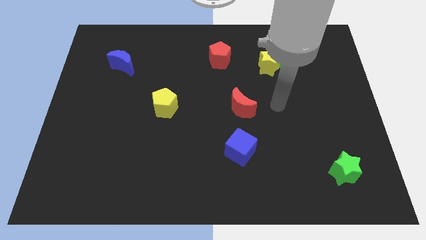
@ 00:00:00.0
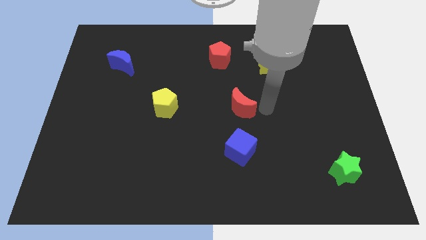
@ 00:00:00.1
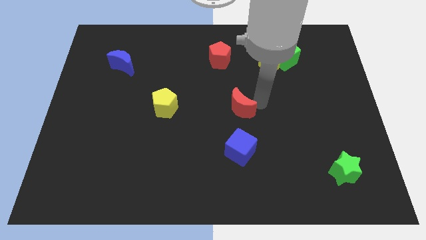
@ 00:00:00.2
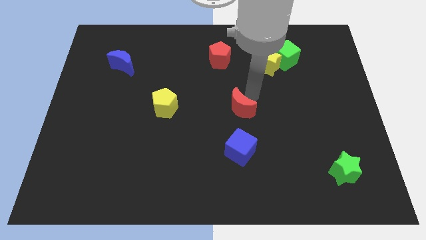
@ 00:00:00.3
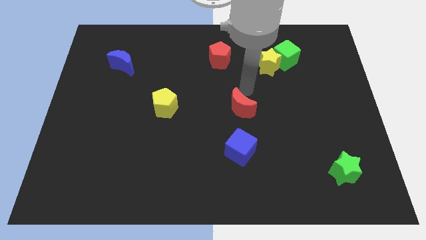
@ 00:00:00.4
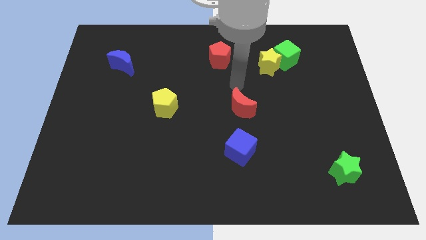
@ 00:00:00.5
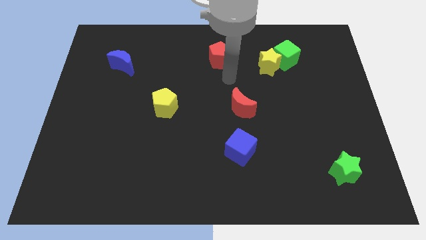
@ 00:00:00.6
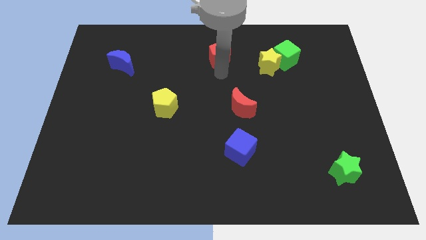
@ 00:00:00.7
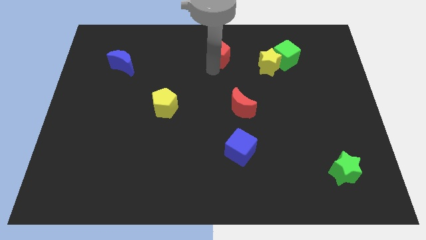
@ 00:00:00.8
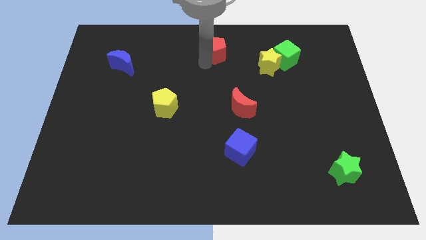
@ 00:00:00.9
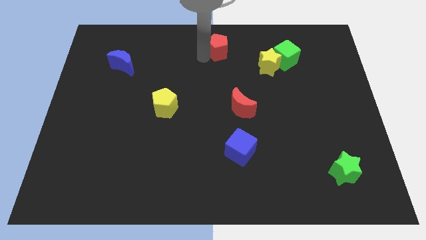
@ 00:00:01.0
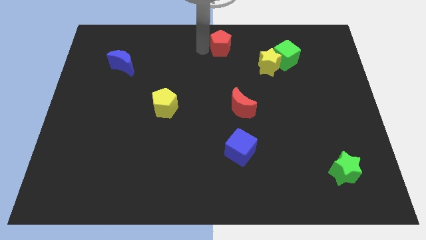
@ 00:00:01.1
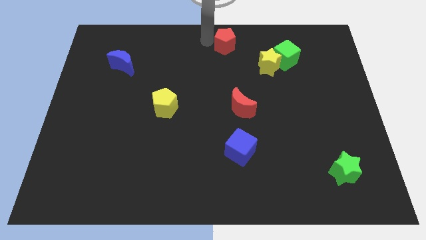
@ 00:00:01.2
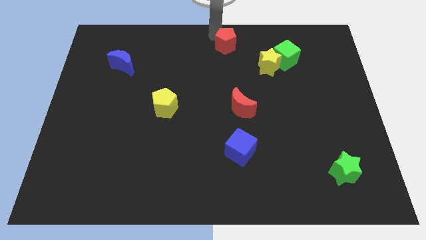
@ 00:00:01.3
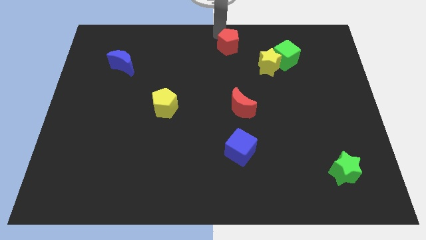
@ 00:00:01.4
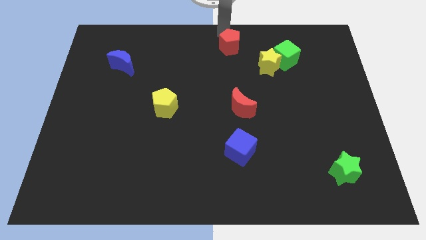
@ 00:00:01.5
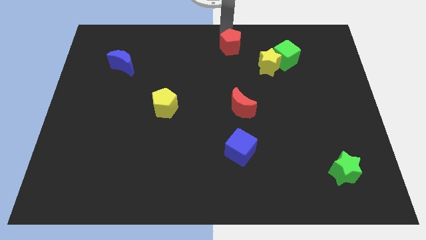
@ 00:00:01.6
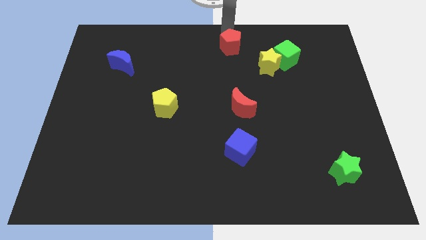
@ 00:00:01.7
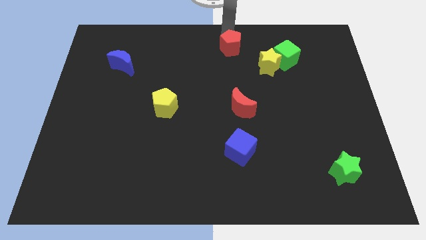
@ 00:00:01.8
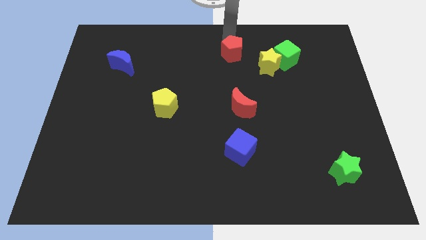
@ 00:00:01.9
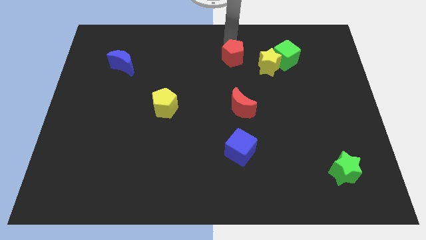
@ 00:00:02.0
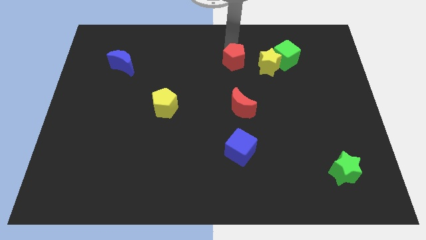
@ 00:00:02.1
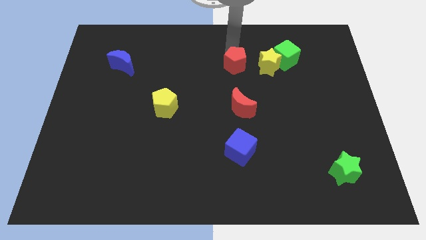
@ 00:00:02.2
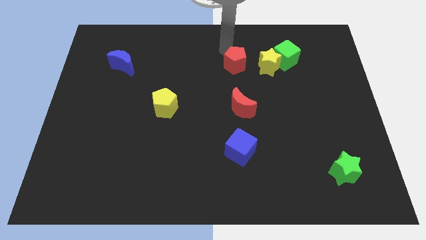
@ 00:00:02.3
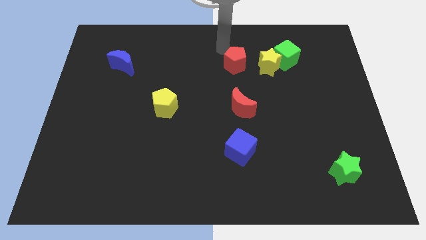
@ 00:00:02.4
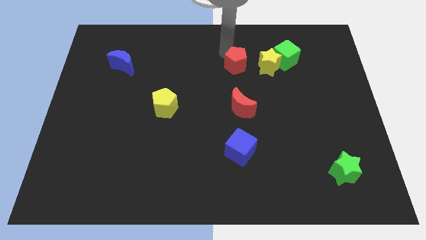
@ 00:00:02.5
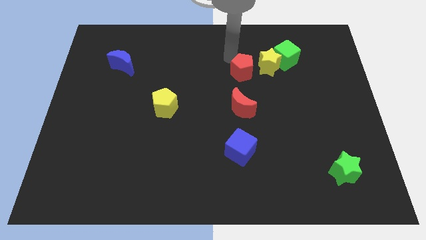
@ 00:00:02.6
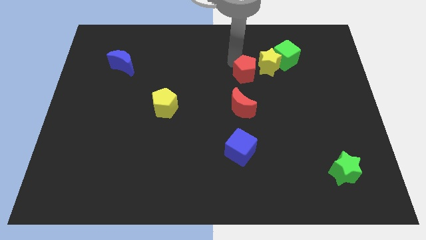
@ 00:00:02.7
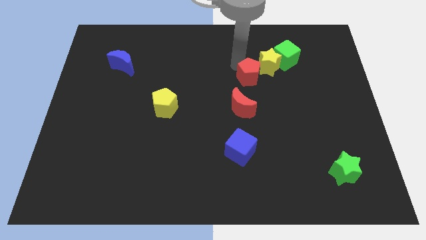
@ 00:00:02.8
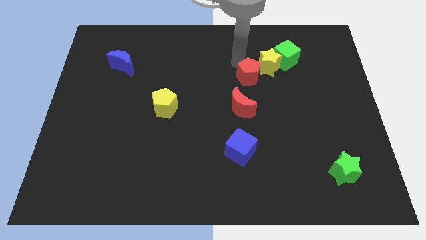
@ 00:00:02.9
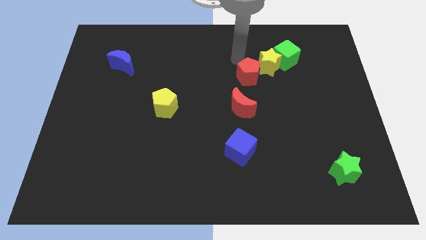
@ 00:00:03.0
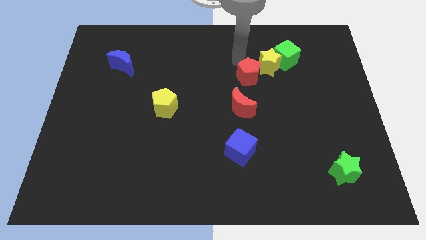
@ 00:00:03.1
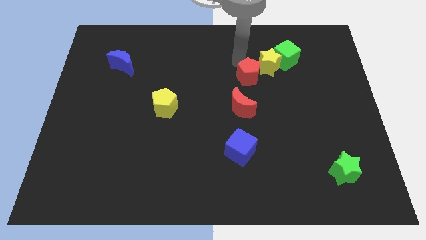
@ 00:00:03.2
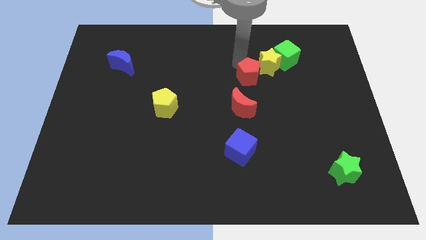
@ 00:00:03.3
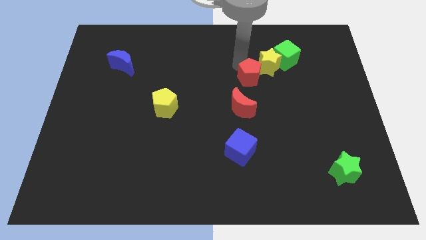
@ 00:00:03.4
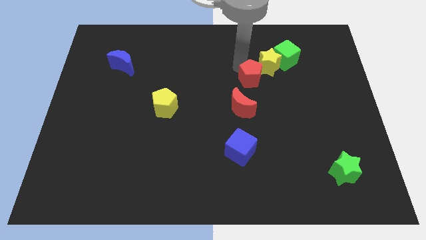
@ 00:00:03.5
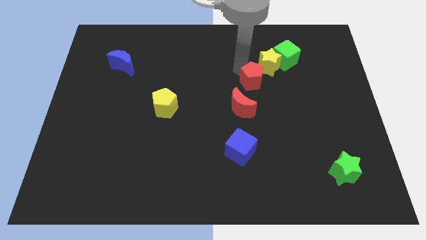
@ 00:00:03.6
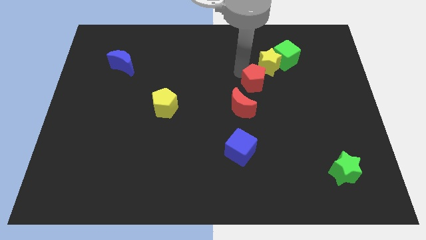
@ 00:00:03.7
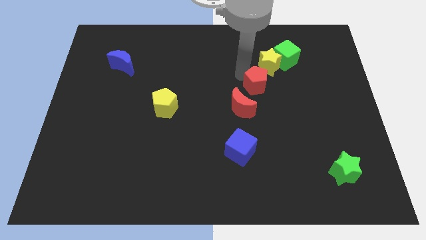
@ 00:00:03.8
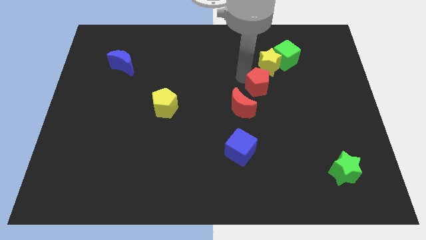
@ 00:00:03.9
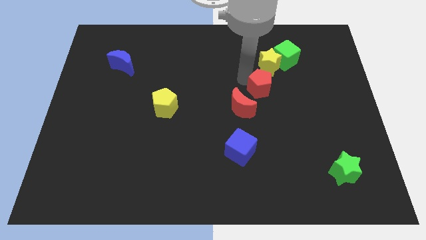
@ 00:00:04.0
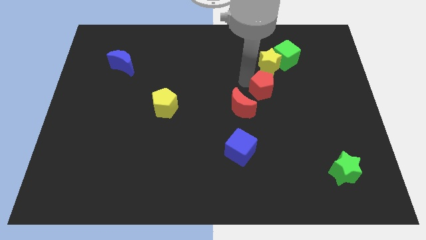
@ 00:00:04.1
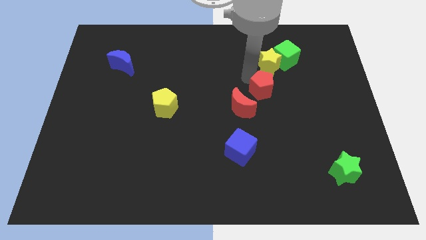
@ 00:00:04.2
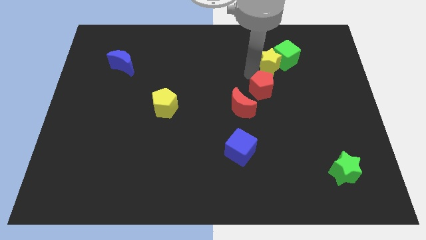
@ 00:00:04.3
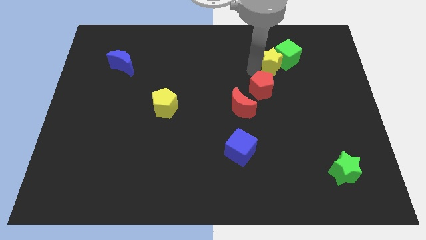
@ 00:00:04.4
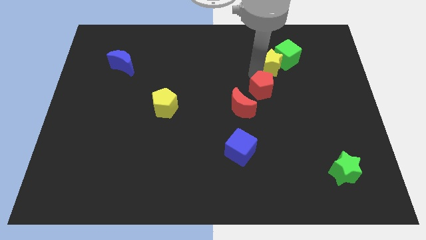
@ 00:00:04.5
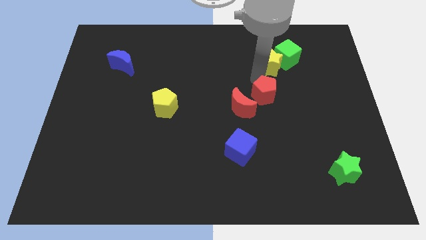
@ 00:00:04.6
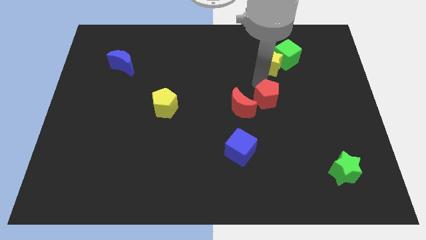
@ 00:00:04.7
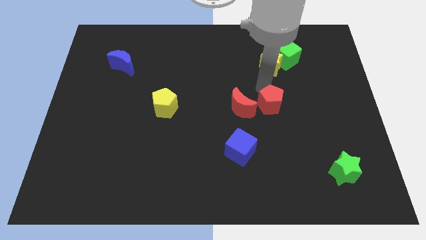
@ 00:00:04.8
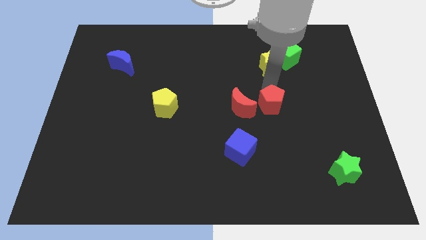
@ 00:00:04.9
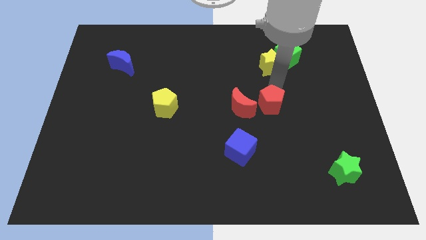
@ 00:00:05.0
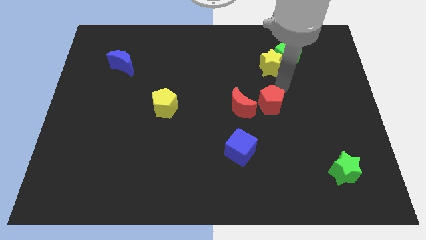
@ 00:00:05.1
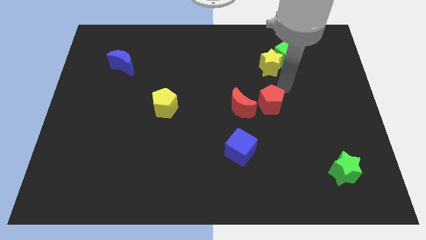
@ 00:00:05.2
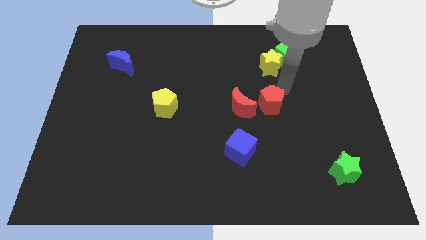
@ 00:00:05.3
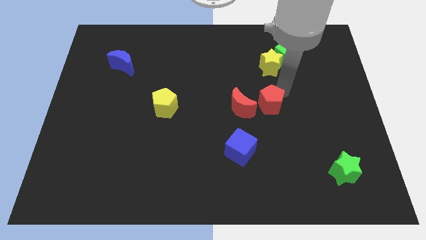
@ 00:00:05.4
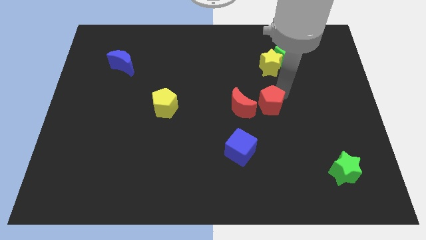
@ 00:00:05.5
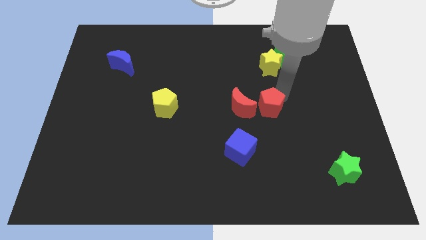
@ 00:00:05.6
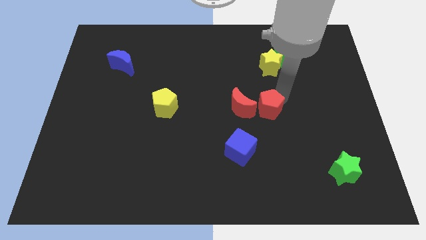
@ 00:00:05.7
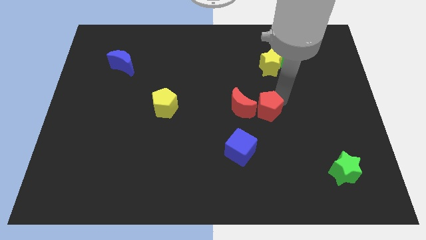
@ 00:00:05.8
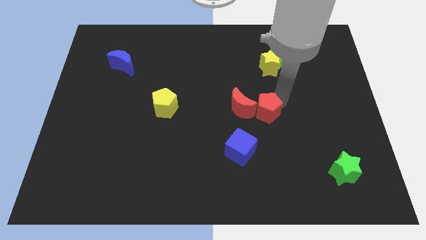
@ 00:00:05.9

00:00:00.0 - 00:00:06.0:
push the red pentagon to the top right of the blue cube
